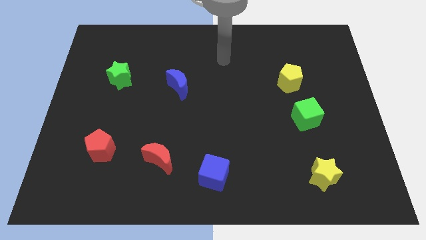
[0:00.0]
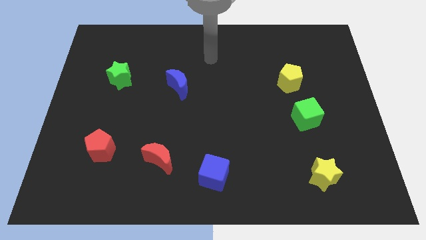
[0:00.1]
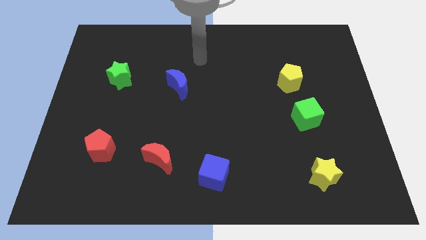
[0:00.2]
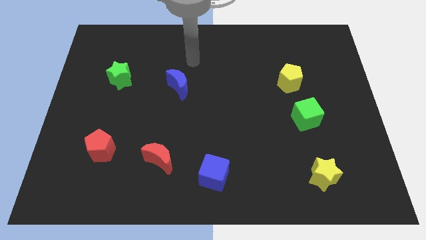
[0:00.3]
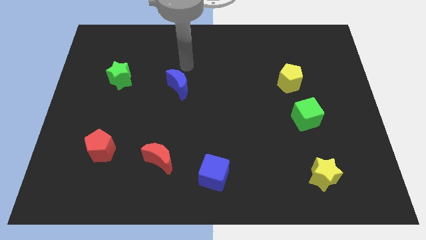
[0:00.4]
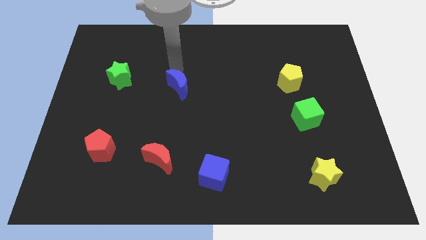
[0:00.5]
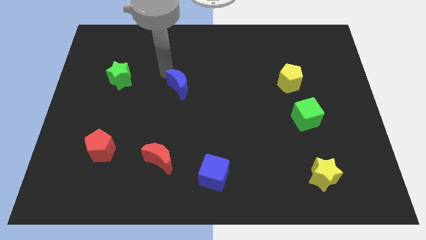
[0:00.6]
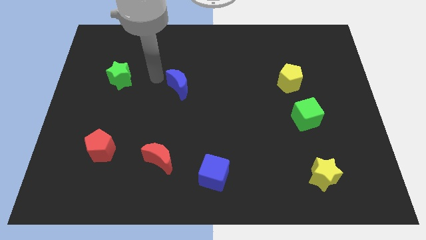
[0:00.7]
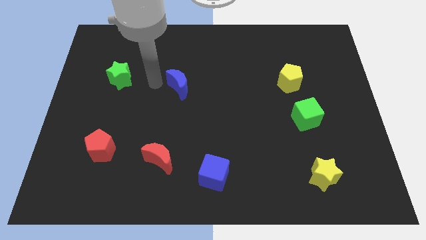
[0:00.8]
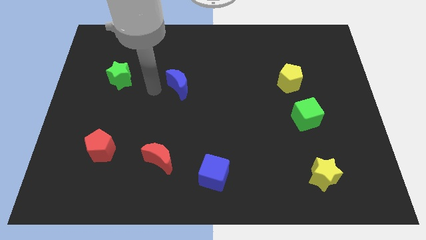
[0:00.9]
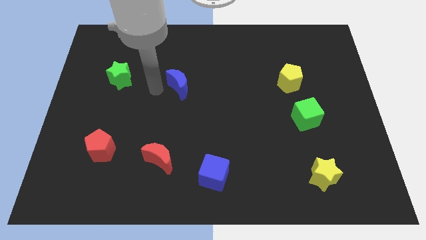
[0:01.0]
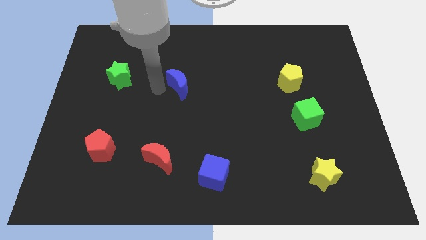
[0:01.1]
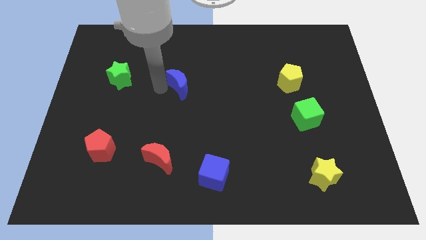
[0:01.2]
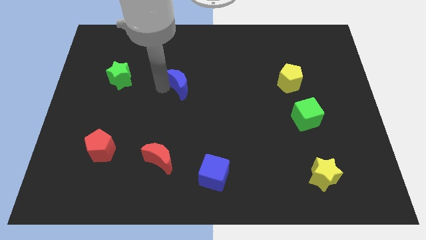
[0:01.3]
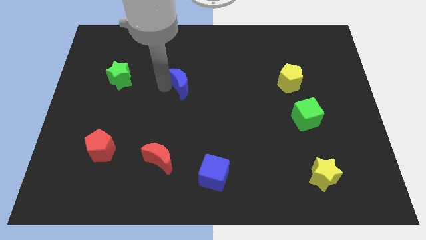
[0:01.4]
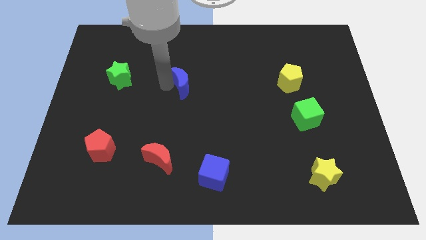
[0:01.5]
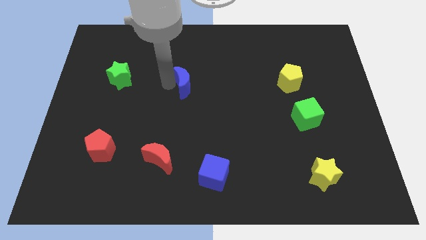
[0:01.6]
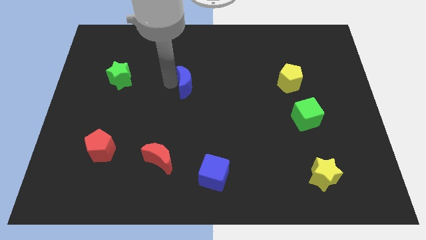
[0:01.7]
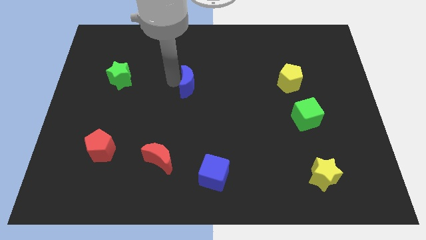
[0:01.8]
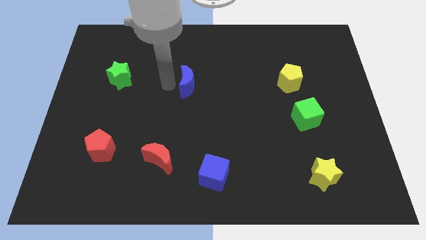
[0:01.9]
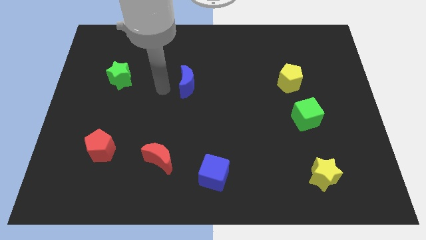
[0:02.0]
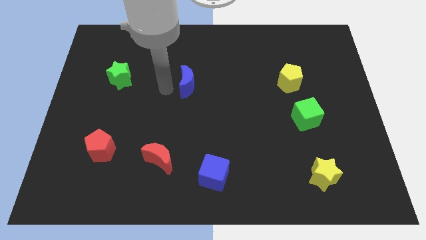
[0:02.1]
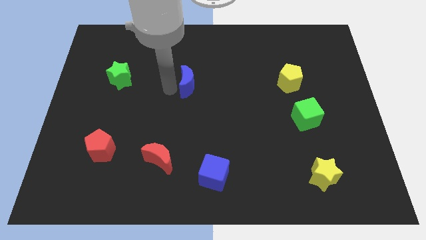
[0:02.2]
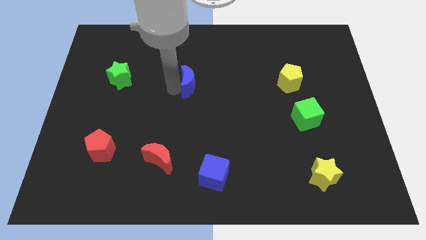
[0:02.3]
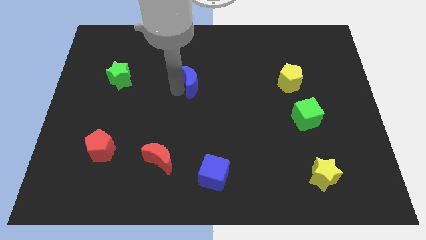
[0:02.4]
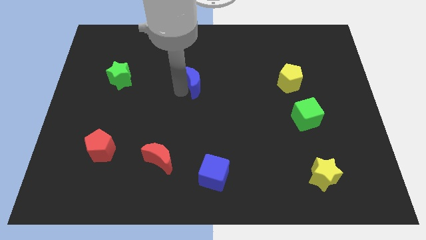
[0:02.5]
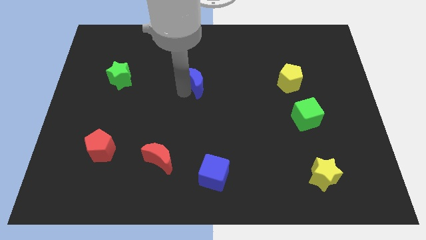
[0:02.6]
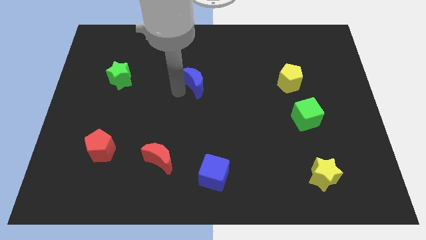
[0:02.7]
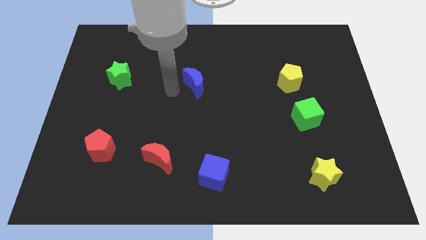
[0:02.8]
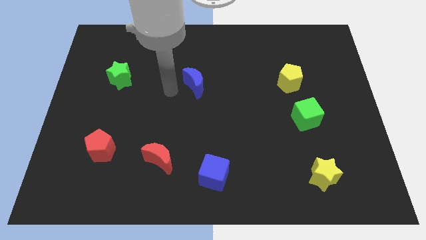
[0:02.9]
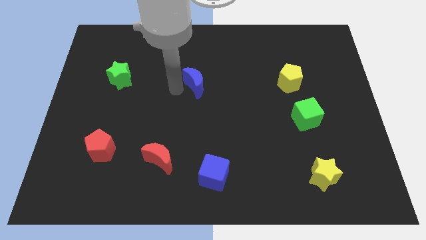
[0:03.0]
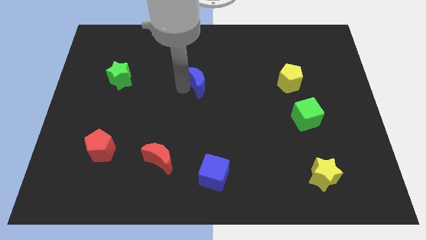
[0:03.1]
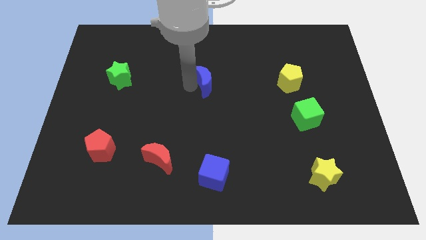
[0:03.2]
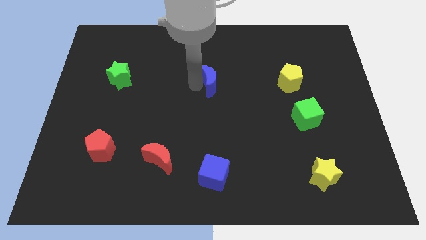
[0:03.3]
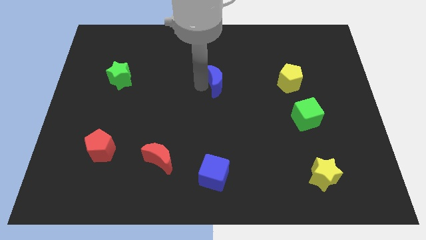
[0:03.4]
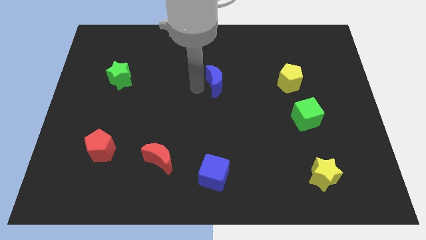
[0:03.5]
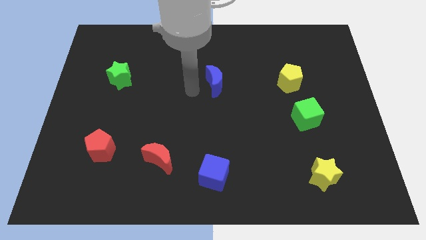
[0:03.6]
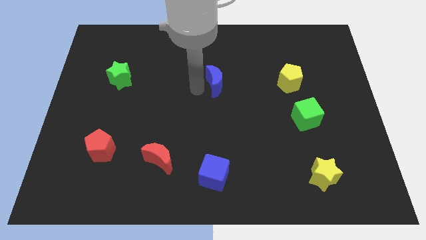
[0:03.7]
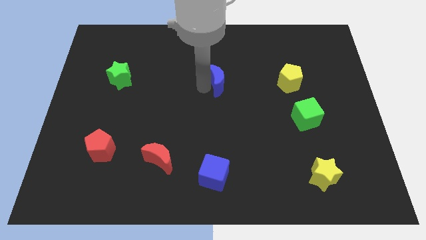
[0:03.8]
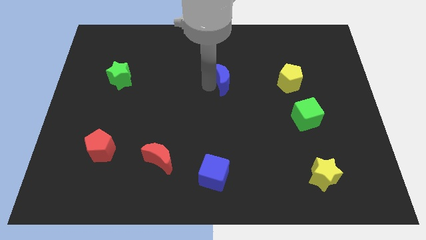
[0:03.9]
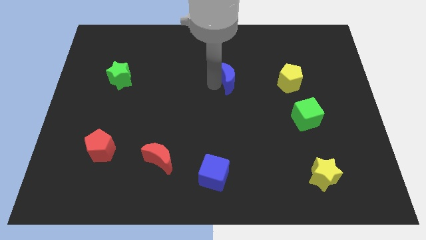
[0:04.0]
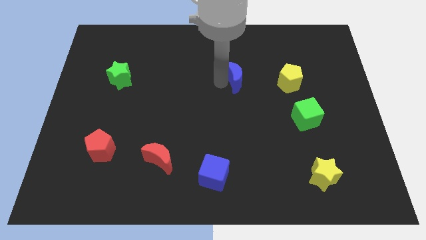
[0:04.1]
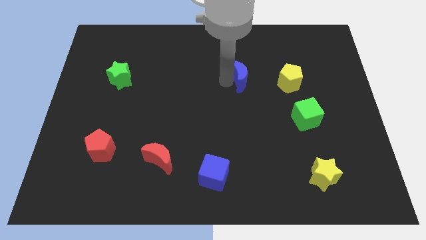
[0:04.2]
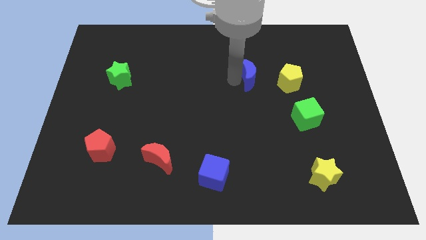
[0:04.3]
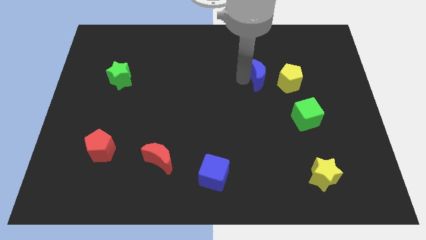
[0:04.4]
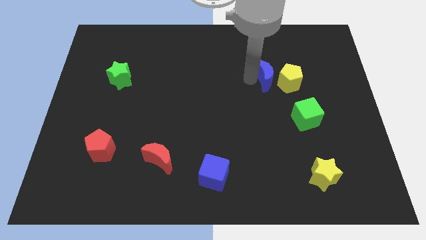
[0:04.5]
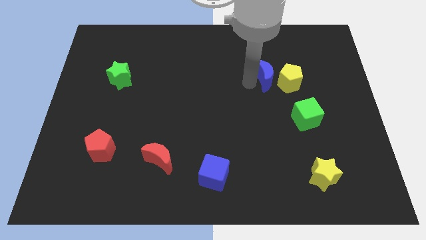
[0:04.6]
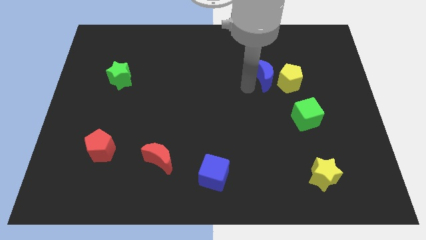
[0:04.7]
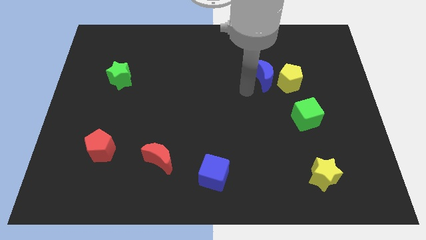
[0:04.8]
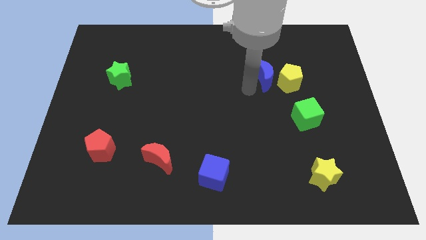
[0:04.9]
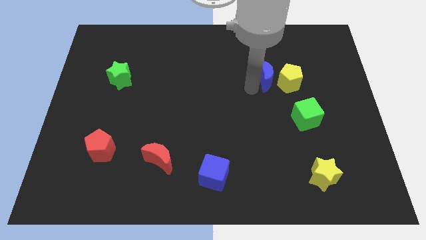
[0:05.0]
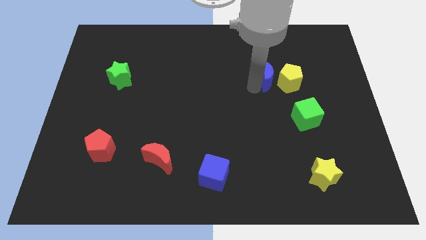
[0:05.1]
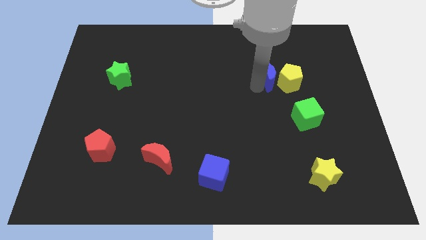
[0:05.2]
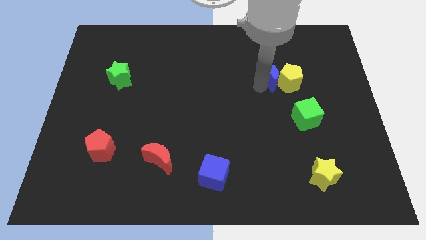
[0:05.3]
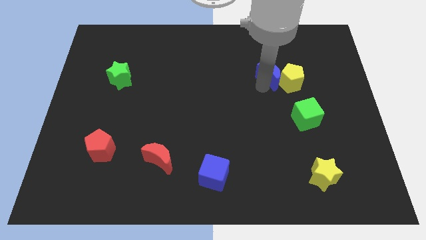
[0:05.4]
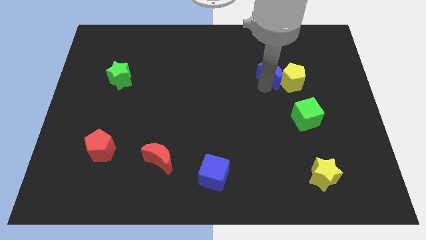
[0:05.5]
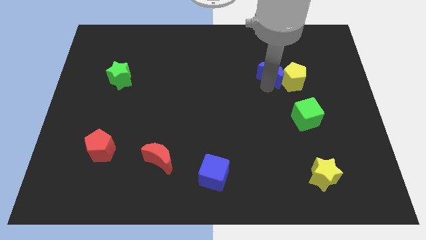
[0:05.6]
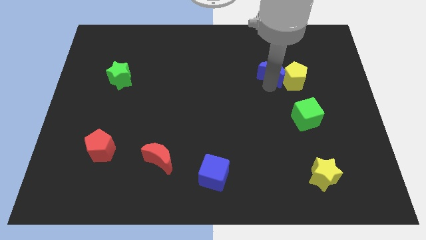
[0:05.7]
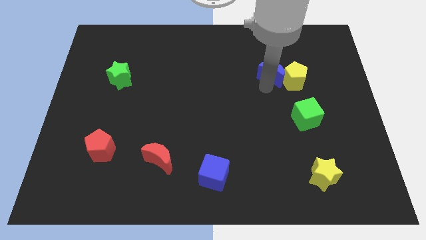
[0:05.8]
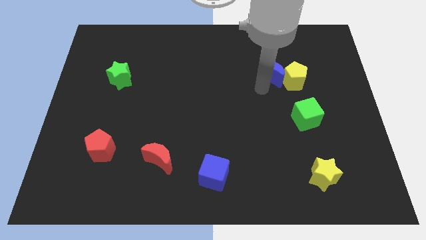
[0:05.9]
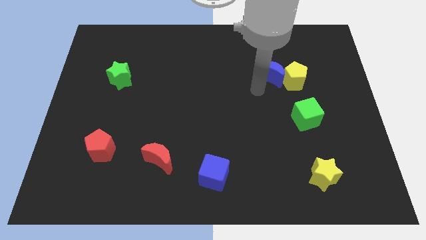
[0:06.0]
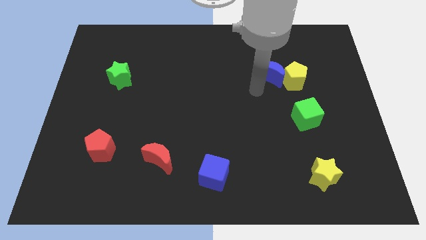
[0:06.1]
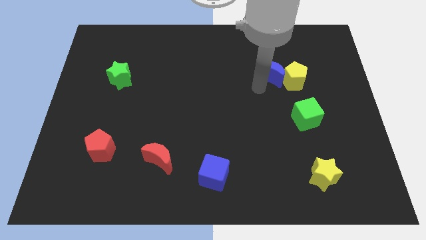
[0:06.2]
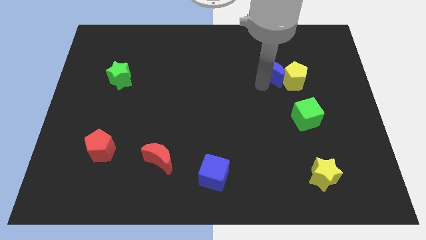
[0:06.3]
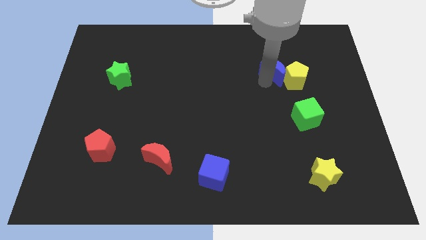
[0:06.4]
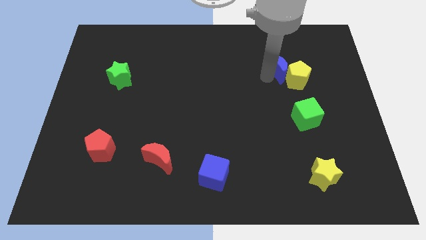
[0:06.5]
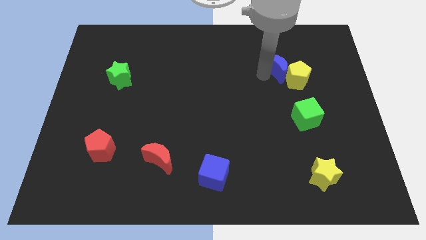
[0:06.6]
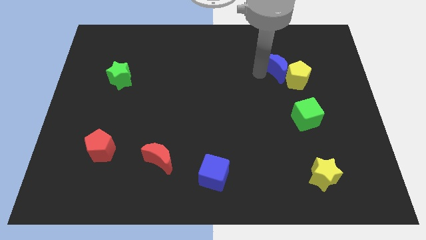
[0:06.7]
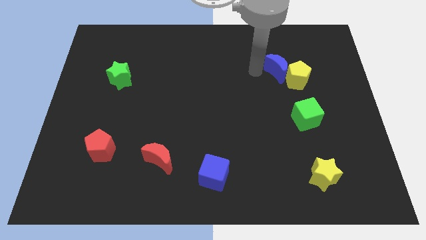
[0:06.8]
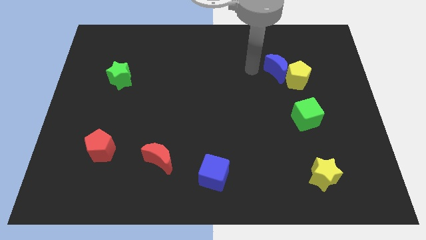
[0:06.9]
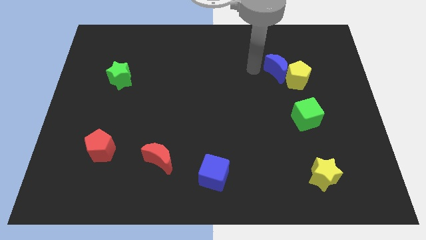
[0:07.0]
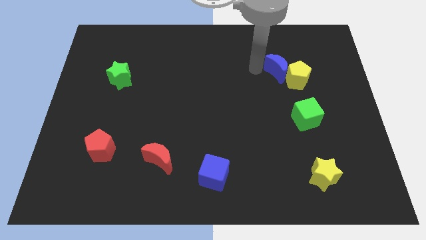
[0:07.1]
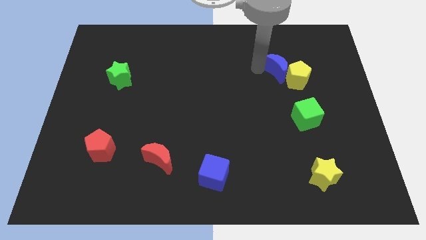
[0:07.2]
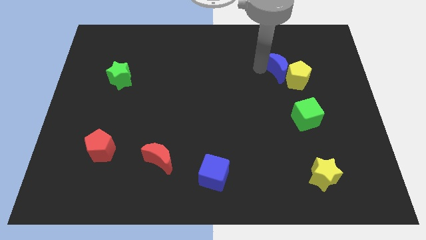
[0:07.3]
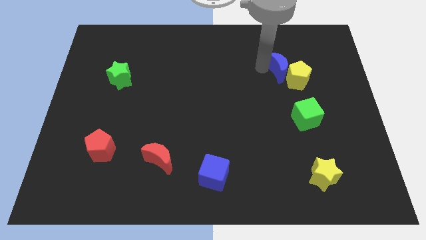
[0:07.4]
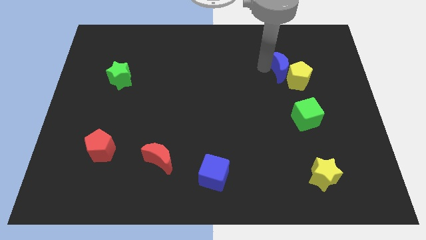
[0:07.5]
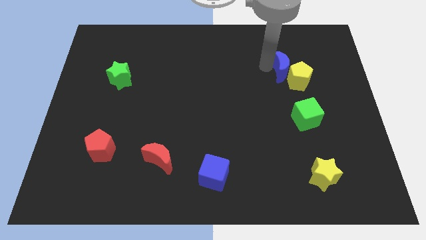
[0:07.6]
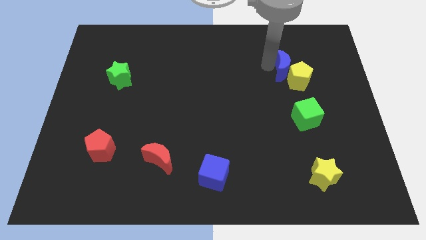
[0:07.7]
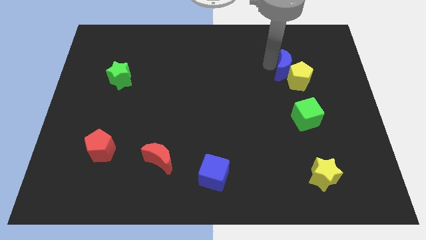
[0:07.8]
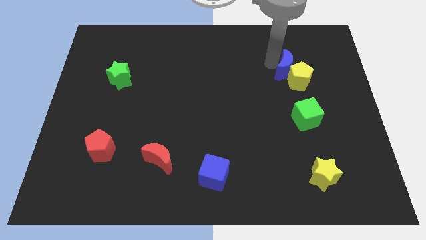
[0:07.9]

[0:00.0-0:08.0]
move the blue moon to the top side of the green cube

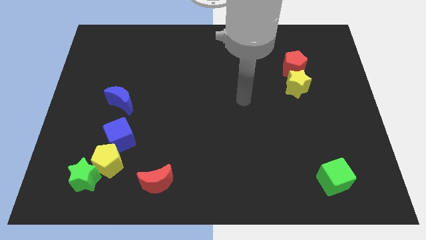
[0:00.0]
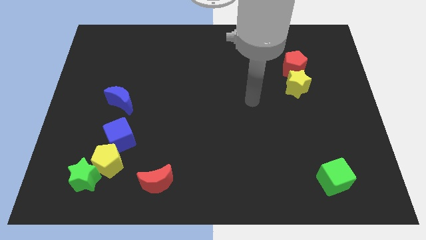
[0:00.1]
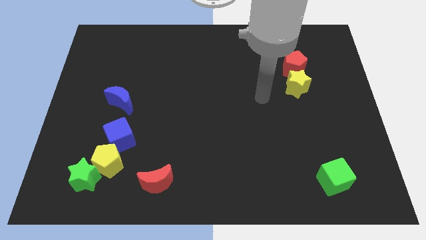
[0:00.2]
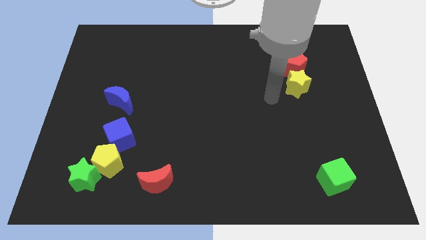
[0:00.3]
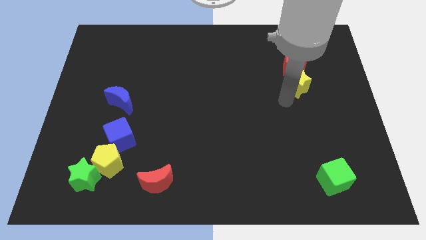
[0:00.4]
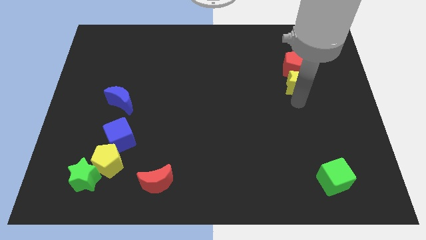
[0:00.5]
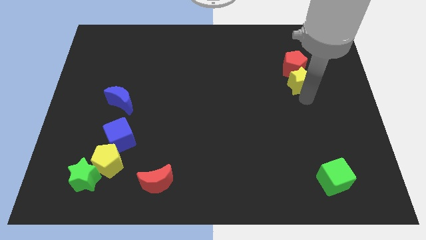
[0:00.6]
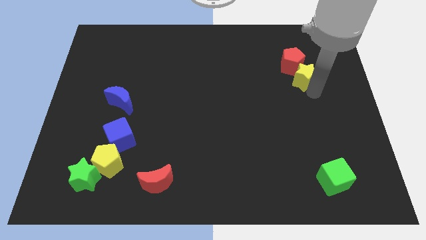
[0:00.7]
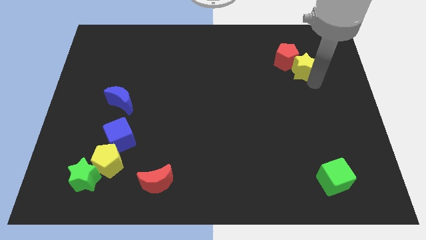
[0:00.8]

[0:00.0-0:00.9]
put the red pentagon just left of the yellow star
